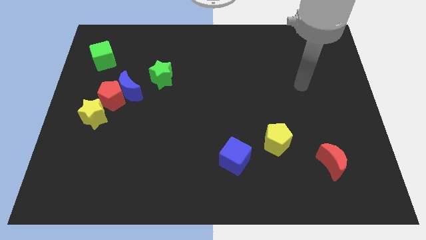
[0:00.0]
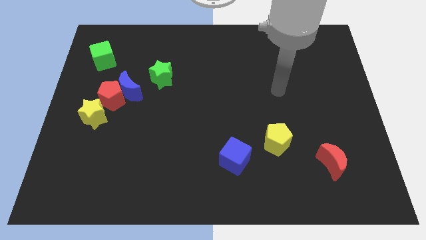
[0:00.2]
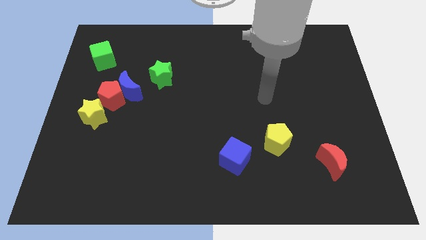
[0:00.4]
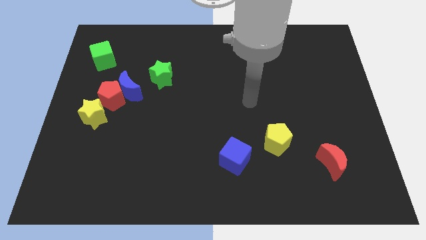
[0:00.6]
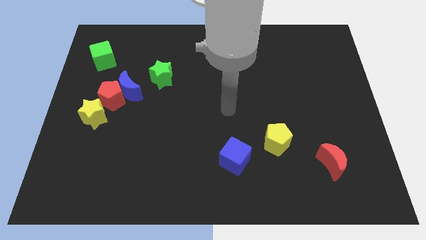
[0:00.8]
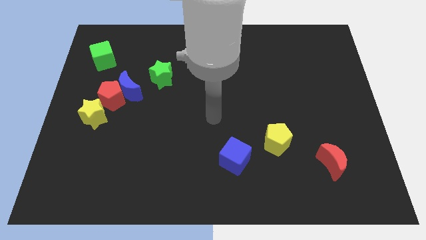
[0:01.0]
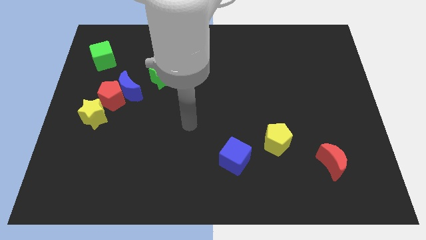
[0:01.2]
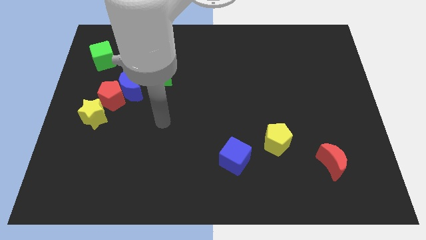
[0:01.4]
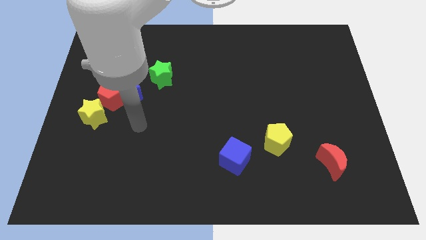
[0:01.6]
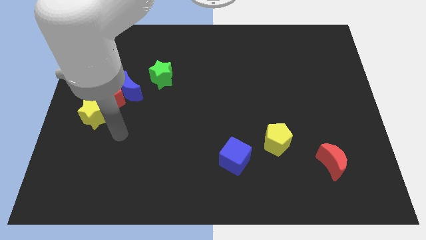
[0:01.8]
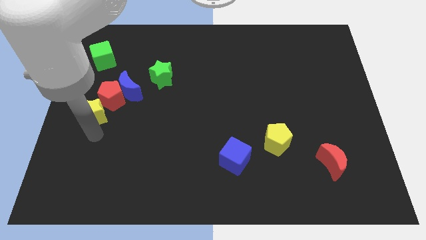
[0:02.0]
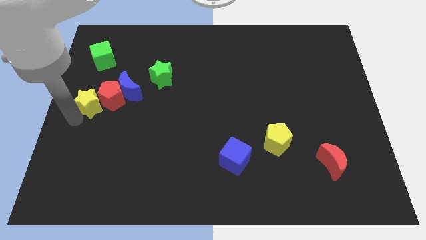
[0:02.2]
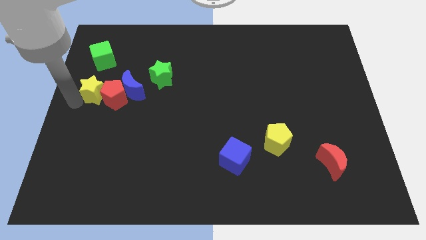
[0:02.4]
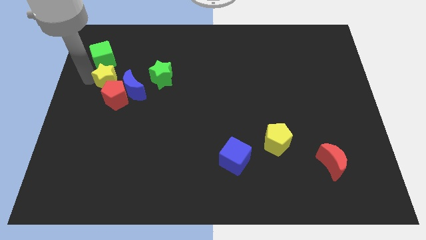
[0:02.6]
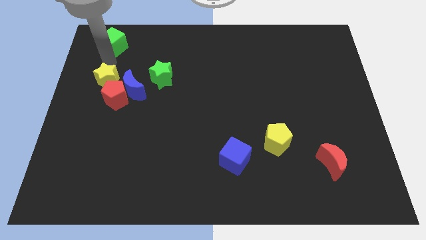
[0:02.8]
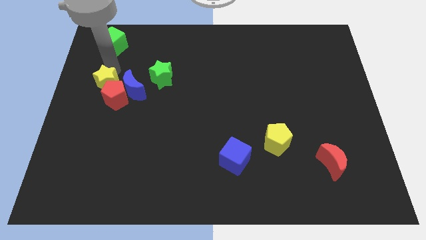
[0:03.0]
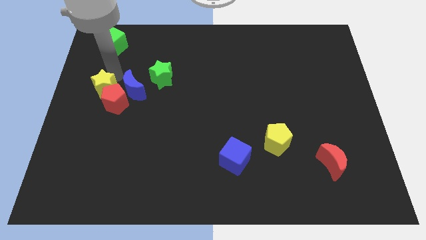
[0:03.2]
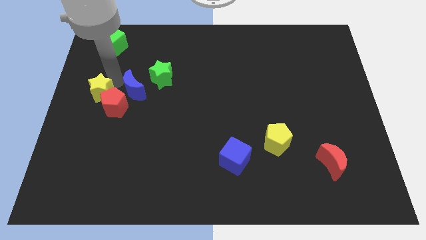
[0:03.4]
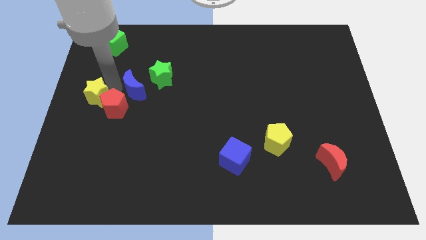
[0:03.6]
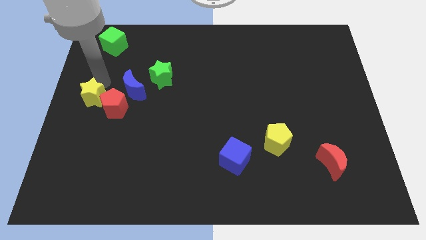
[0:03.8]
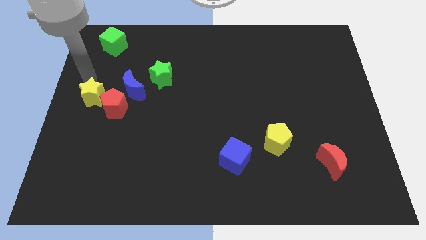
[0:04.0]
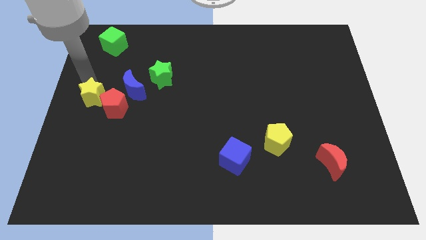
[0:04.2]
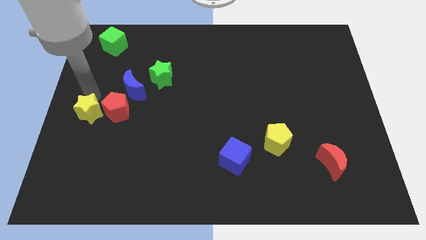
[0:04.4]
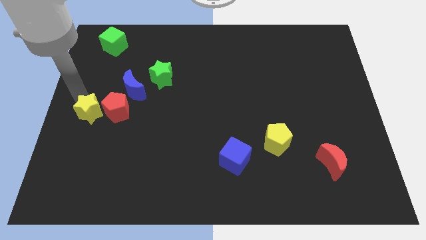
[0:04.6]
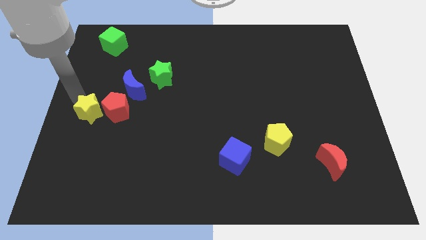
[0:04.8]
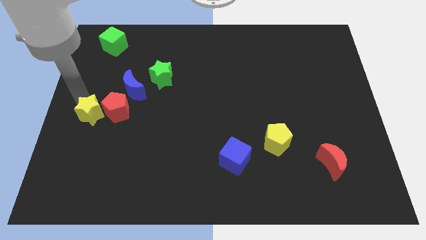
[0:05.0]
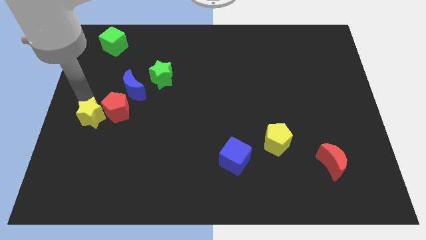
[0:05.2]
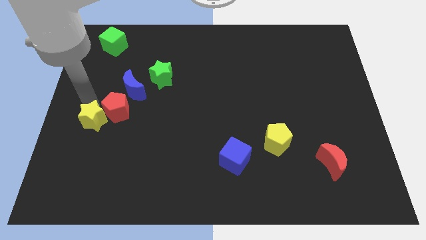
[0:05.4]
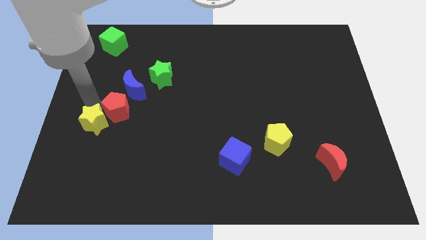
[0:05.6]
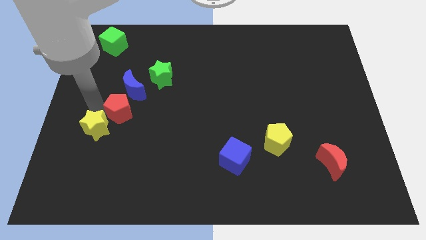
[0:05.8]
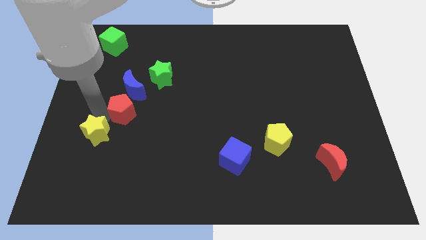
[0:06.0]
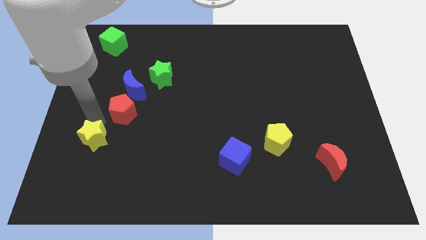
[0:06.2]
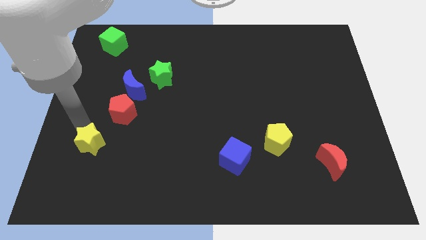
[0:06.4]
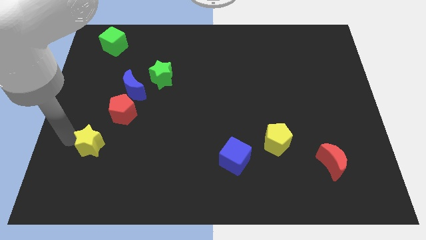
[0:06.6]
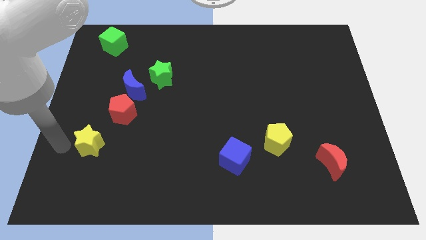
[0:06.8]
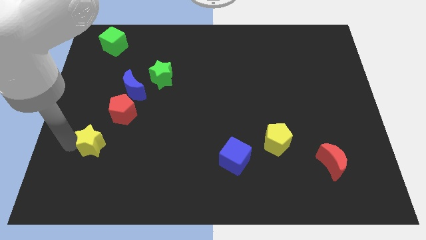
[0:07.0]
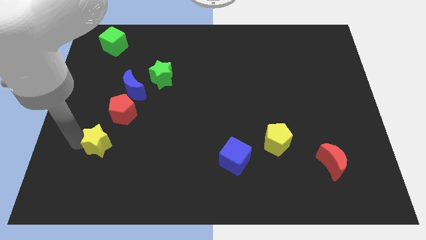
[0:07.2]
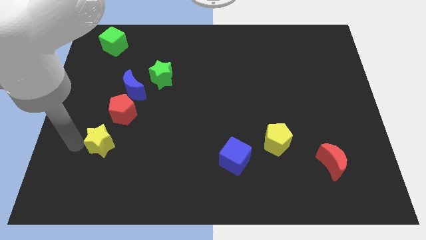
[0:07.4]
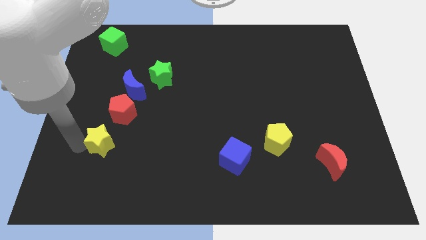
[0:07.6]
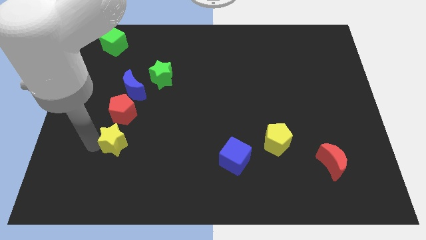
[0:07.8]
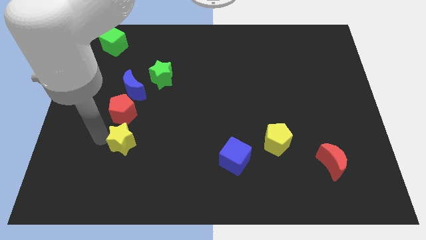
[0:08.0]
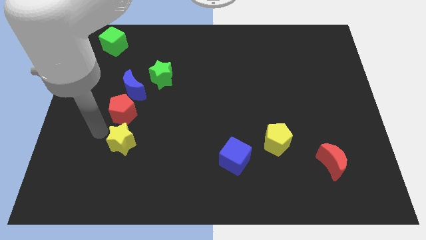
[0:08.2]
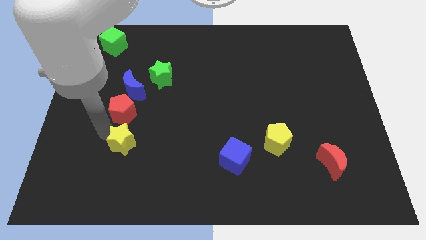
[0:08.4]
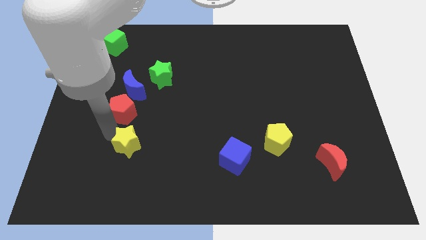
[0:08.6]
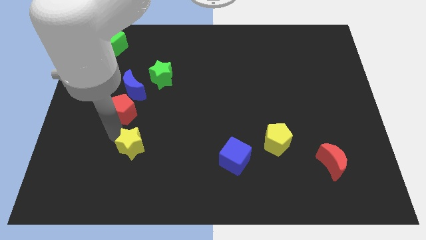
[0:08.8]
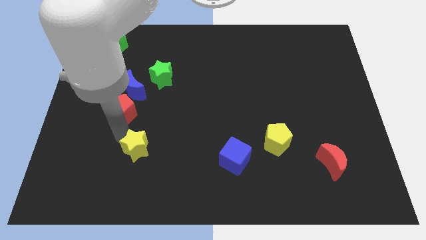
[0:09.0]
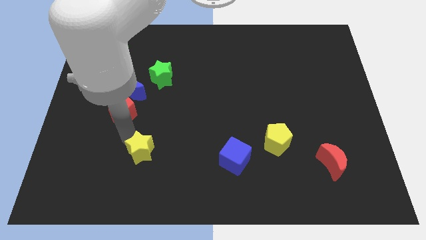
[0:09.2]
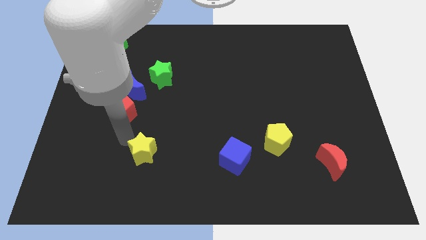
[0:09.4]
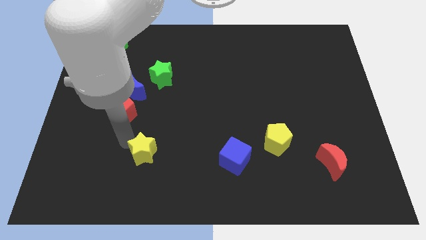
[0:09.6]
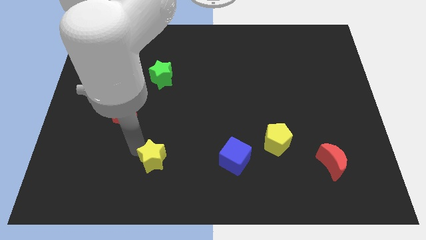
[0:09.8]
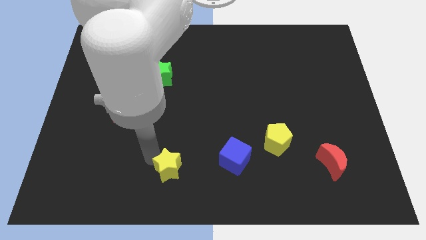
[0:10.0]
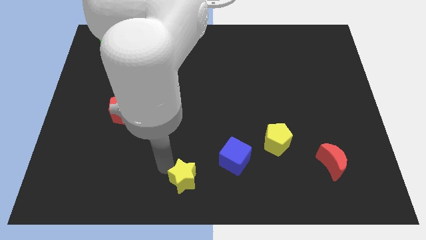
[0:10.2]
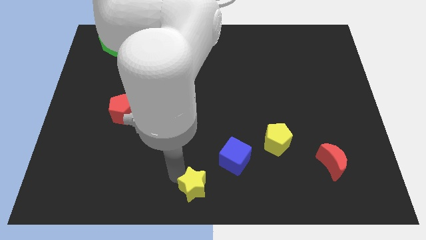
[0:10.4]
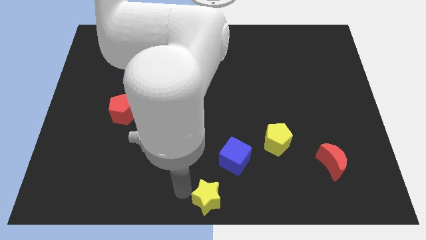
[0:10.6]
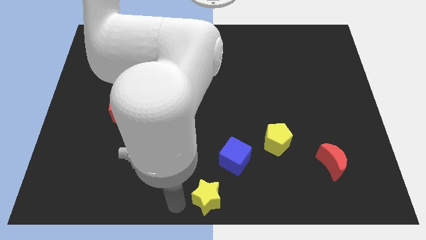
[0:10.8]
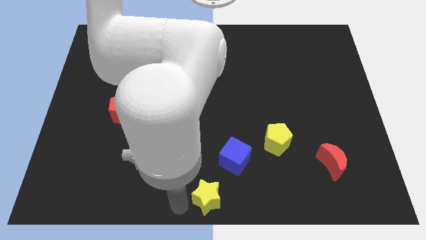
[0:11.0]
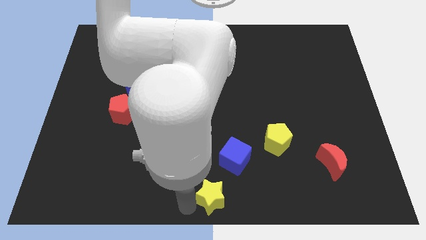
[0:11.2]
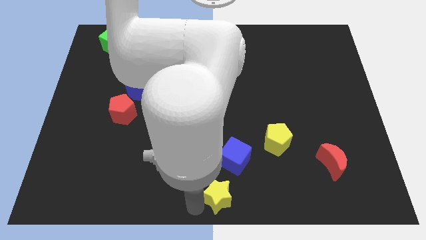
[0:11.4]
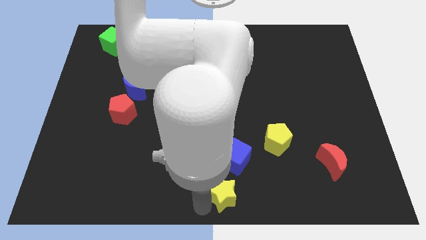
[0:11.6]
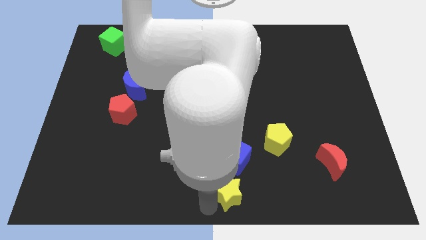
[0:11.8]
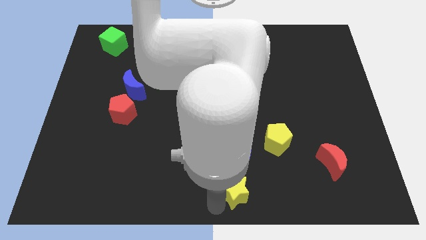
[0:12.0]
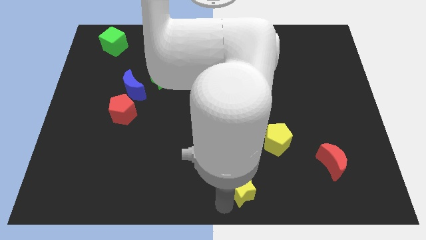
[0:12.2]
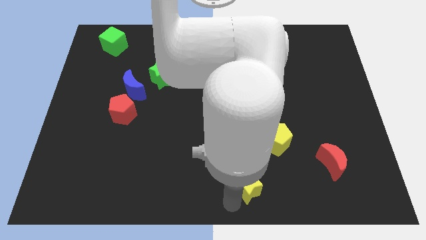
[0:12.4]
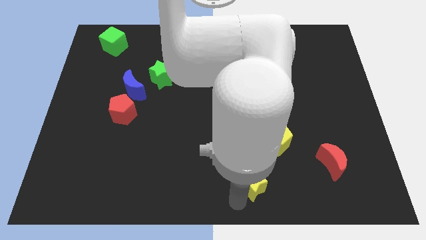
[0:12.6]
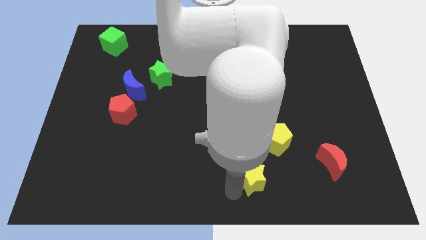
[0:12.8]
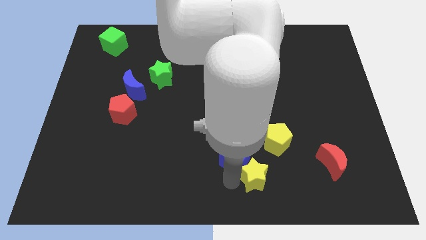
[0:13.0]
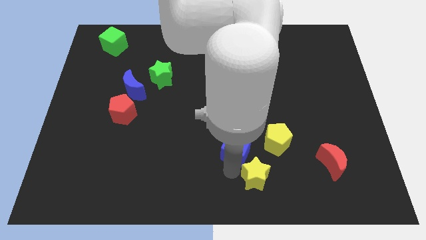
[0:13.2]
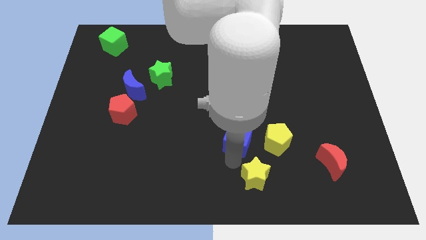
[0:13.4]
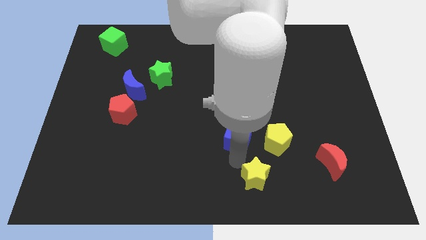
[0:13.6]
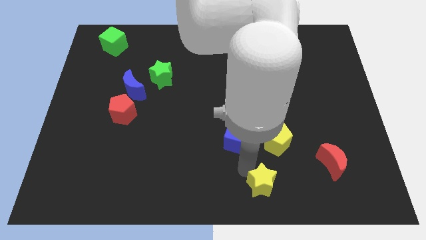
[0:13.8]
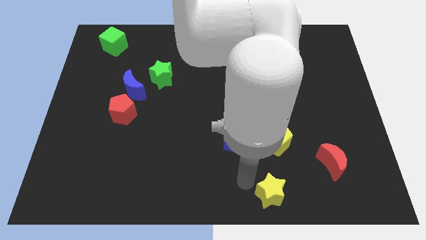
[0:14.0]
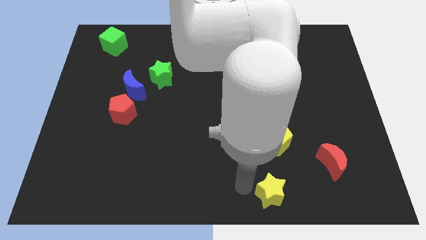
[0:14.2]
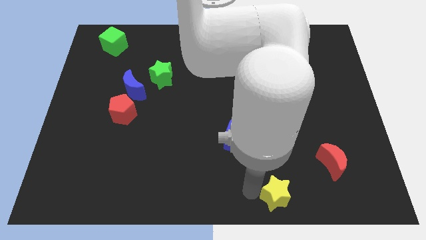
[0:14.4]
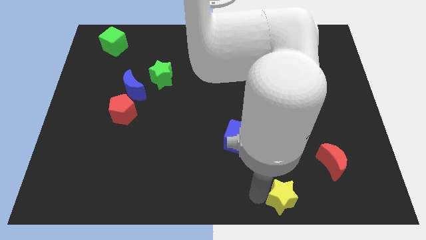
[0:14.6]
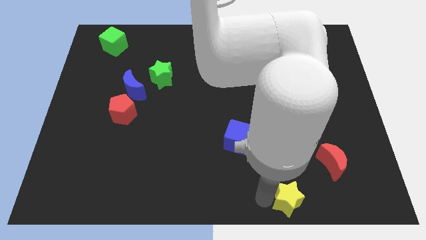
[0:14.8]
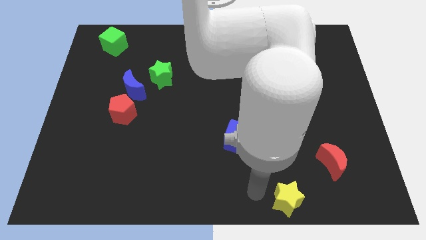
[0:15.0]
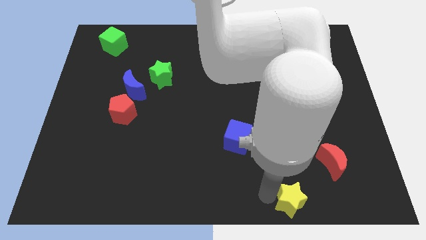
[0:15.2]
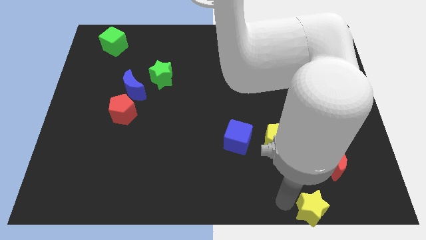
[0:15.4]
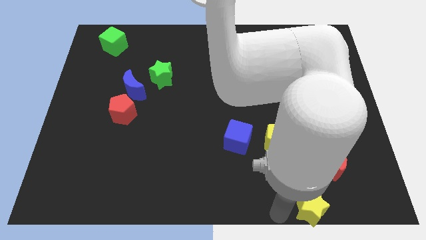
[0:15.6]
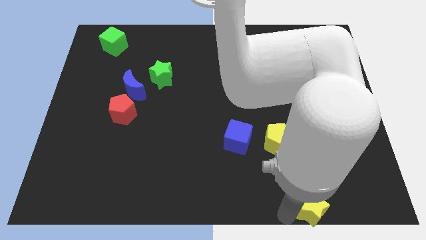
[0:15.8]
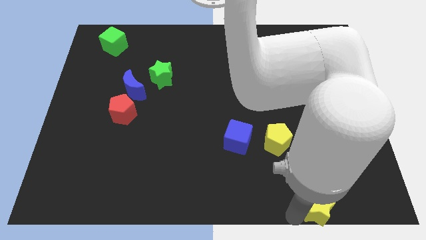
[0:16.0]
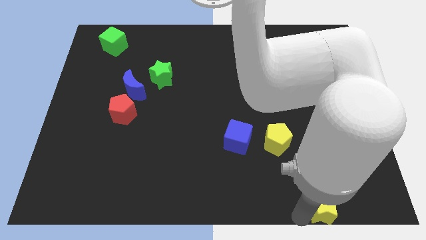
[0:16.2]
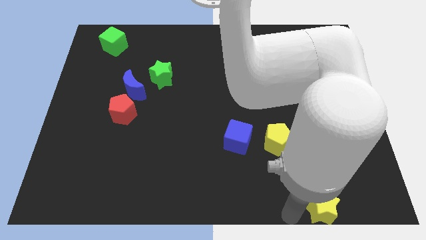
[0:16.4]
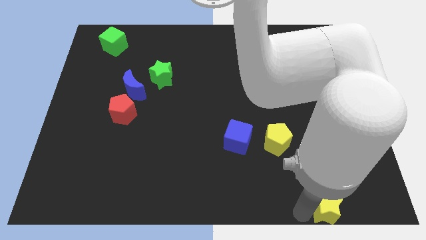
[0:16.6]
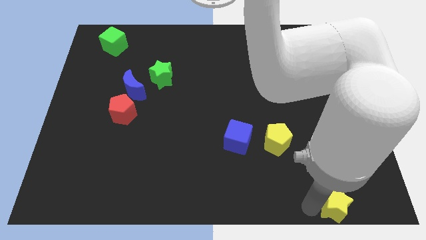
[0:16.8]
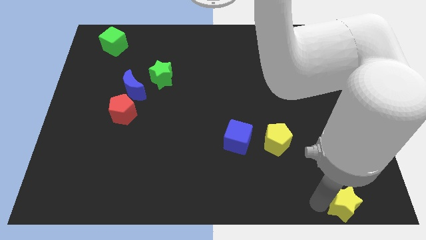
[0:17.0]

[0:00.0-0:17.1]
push the yellow star to the lower right corner
